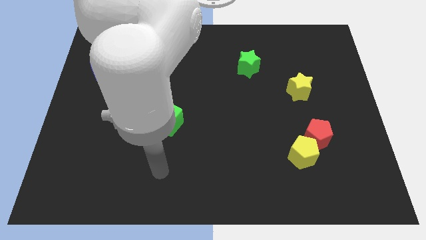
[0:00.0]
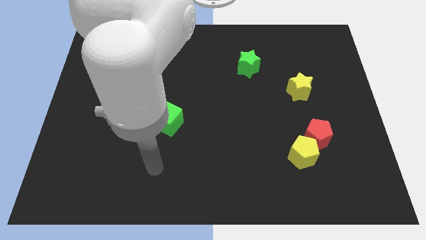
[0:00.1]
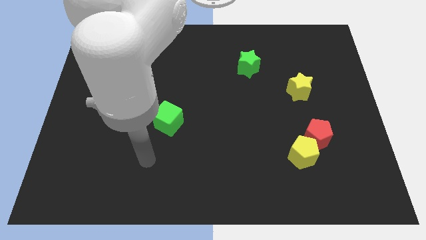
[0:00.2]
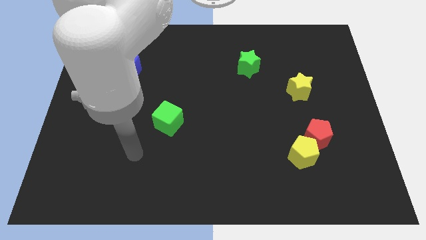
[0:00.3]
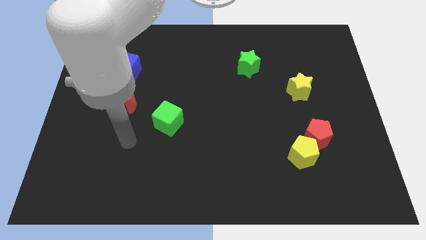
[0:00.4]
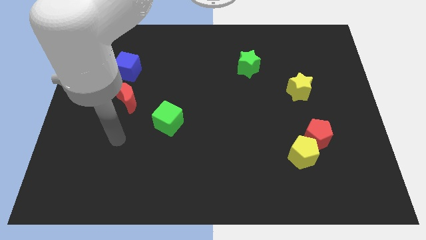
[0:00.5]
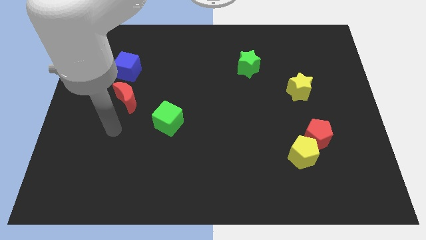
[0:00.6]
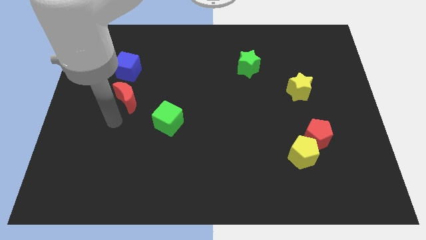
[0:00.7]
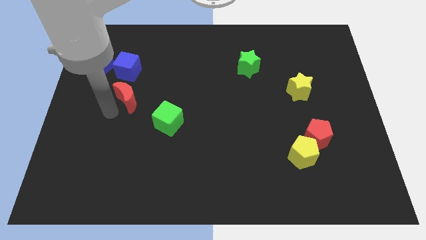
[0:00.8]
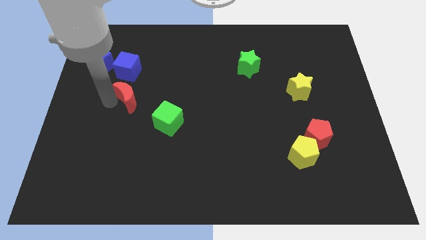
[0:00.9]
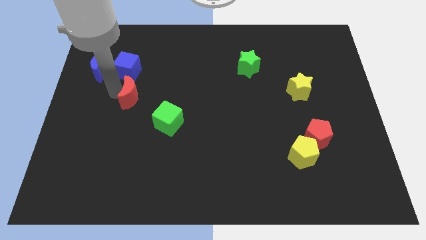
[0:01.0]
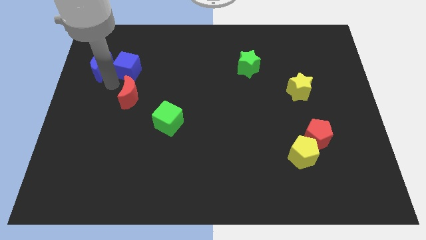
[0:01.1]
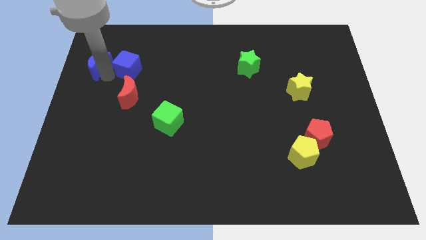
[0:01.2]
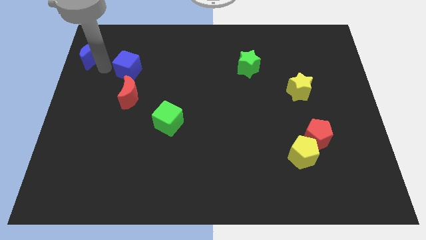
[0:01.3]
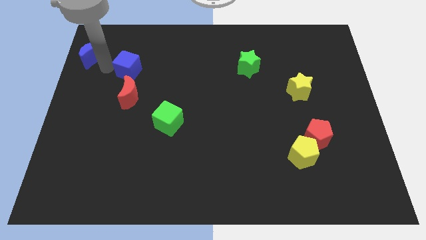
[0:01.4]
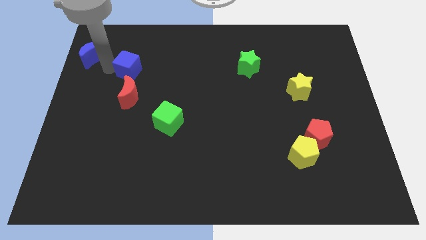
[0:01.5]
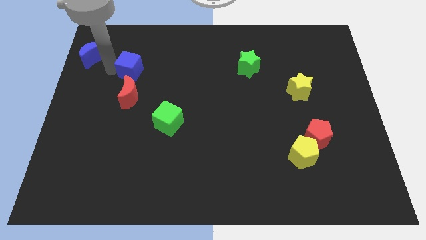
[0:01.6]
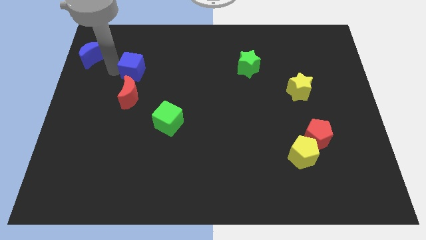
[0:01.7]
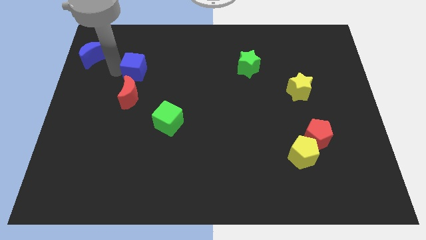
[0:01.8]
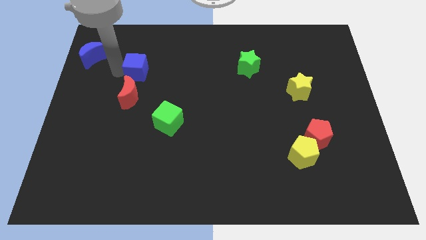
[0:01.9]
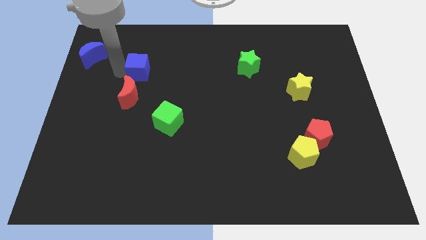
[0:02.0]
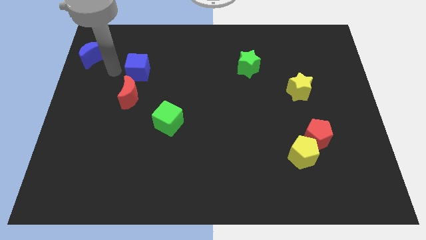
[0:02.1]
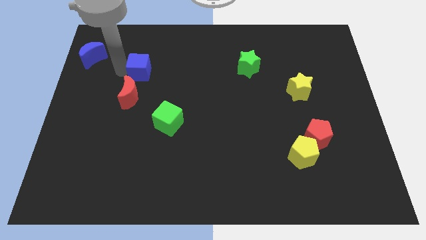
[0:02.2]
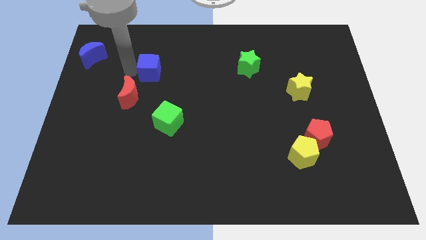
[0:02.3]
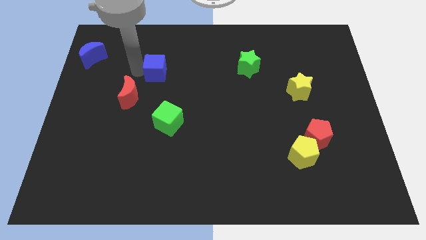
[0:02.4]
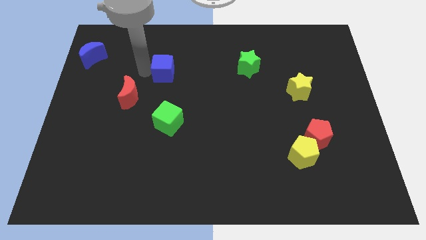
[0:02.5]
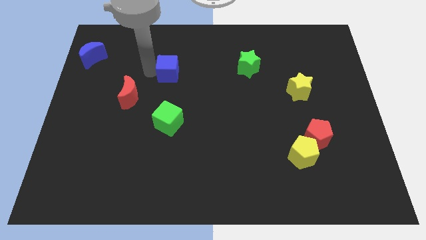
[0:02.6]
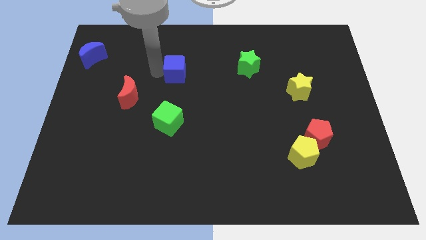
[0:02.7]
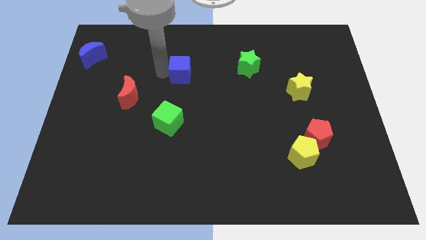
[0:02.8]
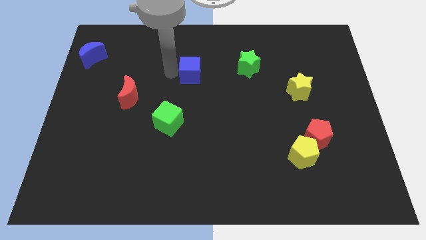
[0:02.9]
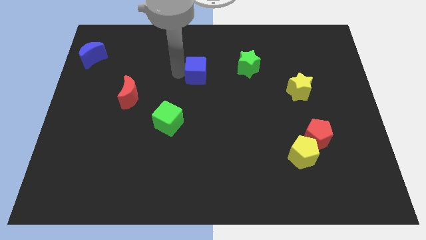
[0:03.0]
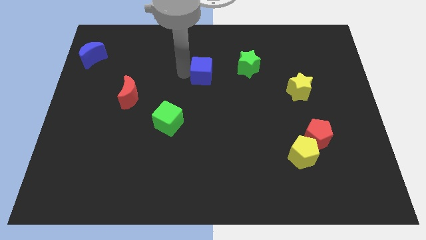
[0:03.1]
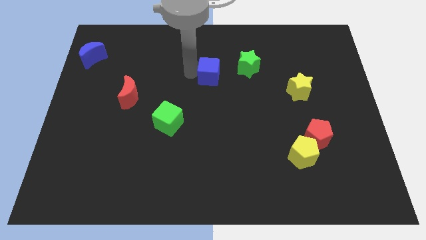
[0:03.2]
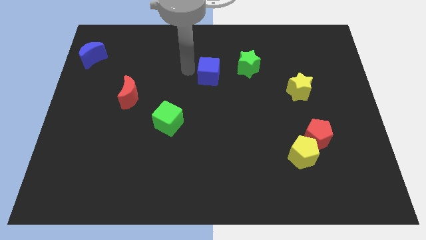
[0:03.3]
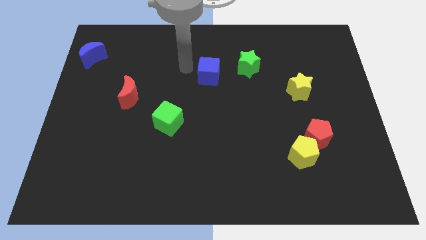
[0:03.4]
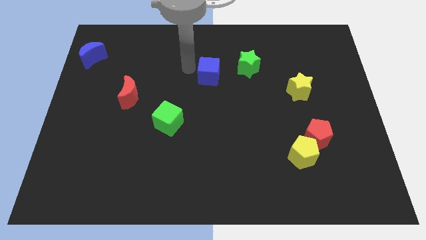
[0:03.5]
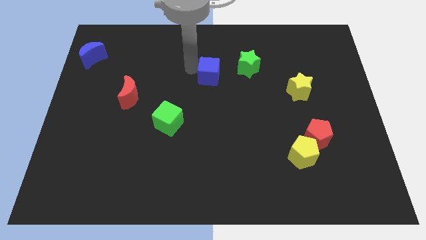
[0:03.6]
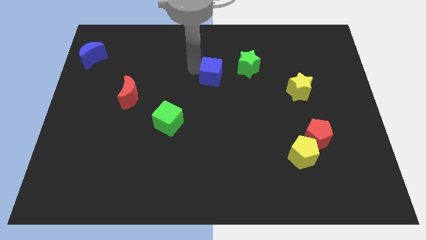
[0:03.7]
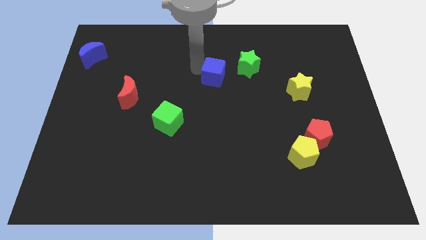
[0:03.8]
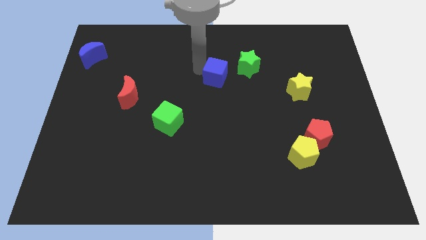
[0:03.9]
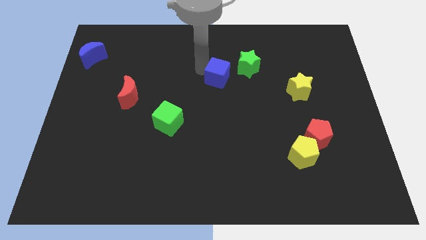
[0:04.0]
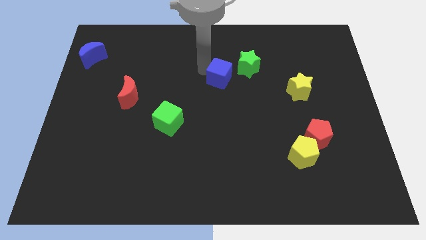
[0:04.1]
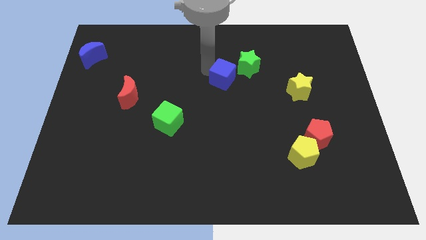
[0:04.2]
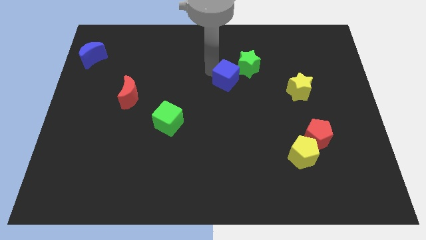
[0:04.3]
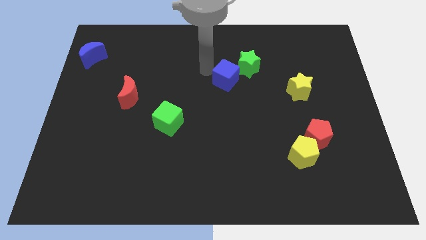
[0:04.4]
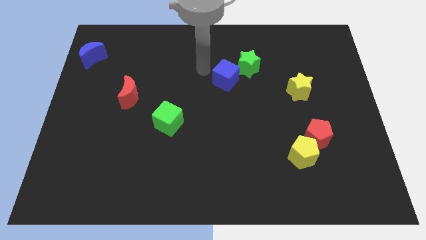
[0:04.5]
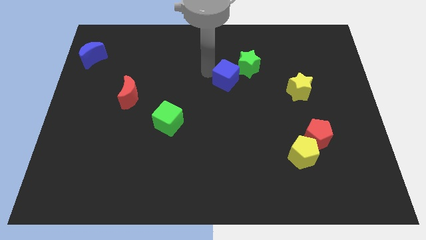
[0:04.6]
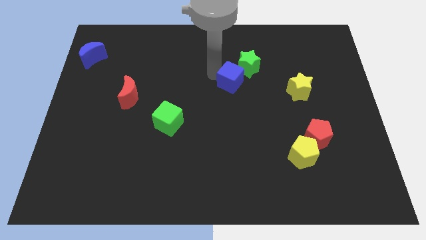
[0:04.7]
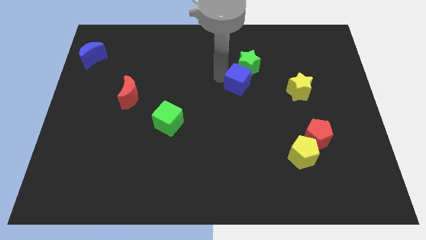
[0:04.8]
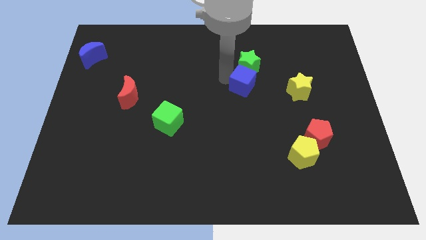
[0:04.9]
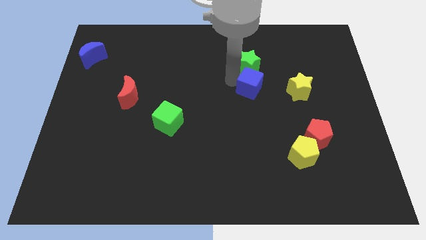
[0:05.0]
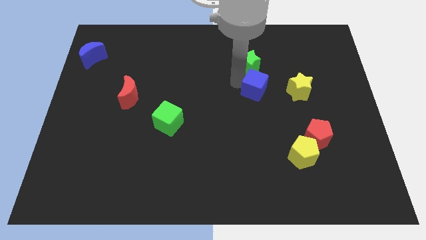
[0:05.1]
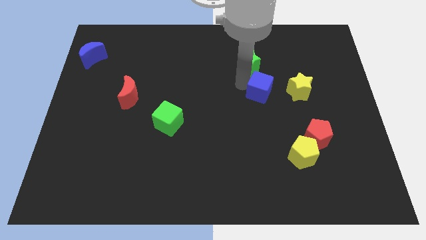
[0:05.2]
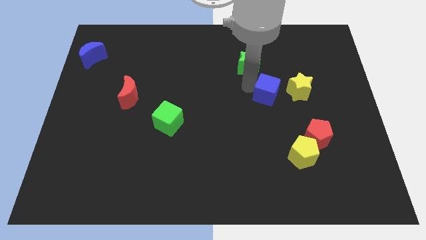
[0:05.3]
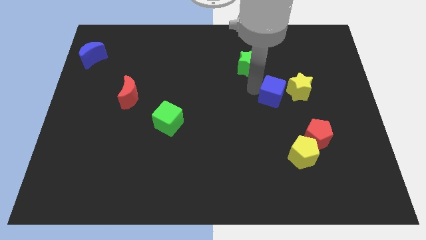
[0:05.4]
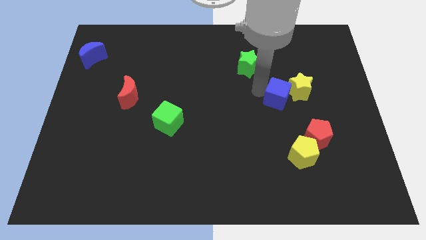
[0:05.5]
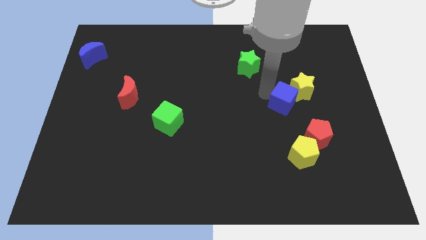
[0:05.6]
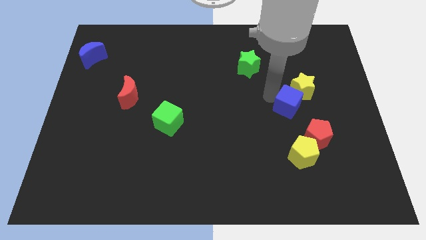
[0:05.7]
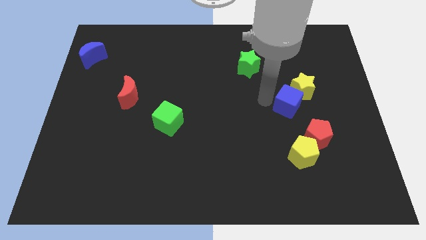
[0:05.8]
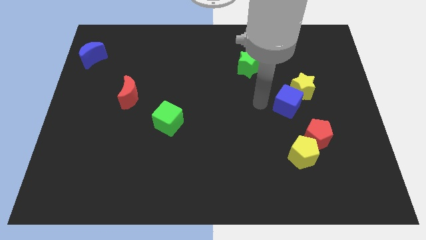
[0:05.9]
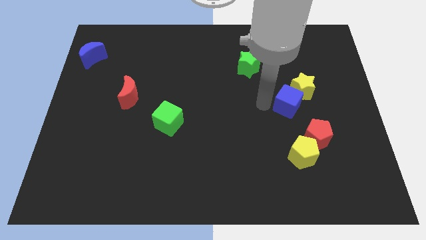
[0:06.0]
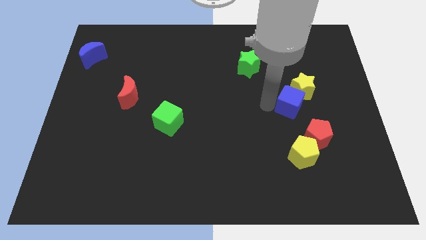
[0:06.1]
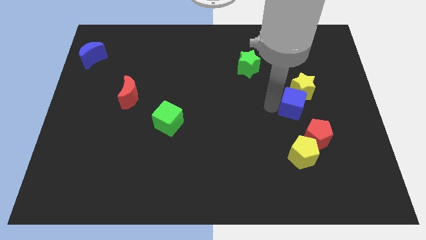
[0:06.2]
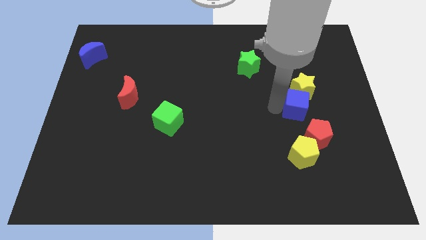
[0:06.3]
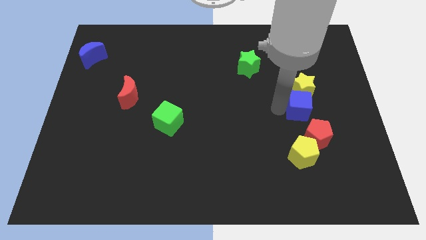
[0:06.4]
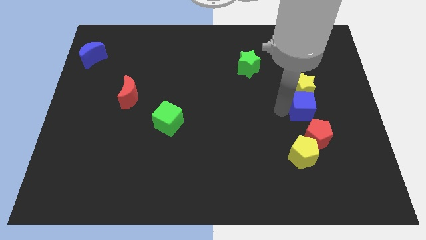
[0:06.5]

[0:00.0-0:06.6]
move the blue cube to the bottom right of the yellow star
